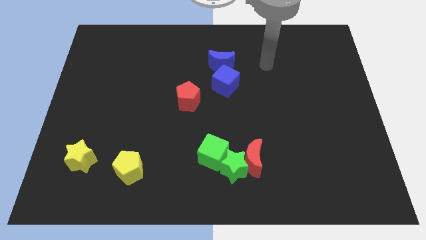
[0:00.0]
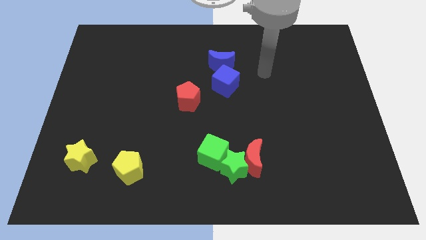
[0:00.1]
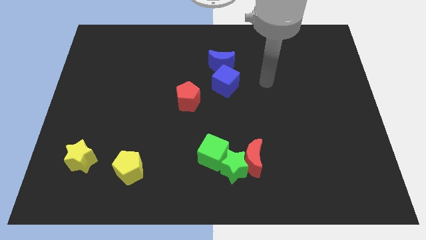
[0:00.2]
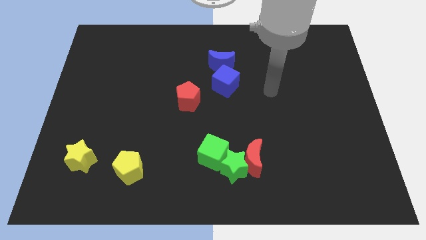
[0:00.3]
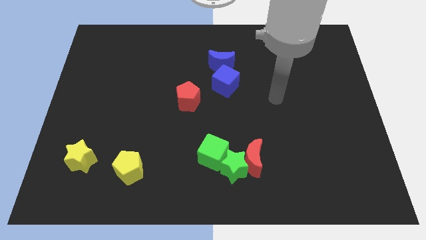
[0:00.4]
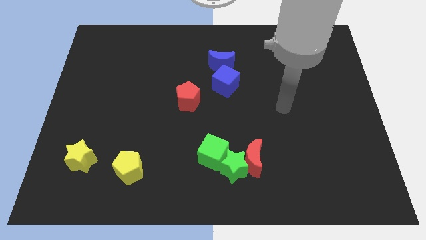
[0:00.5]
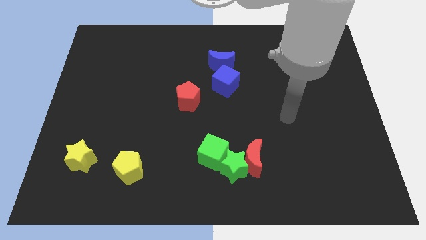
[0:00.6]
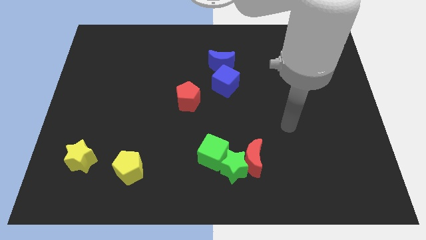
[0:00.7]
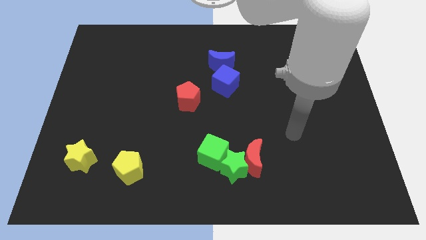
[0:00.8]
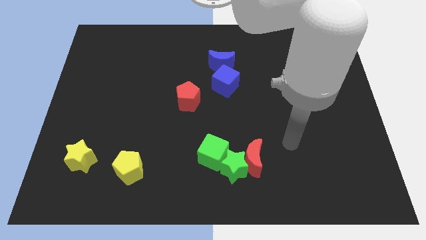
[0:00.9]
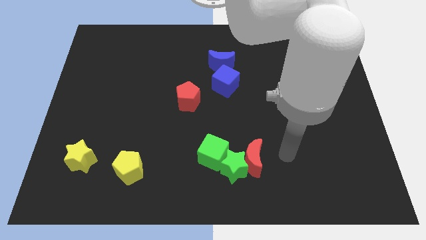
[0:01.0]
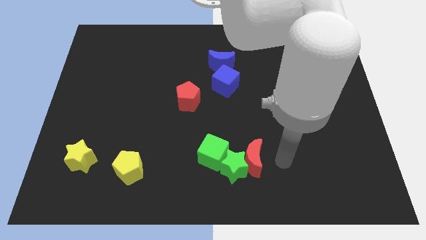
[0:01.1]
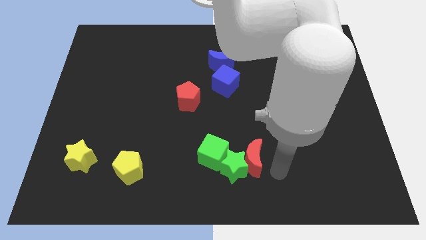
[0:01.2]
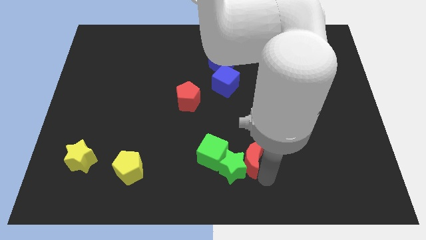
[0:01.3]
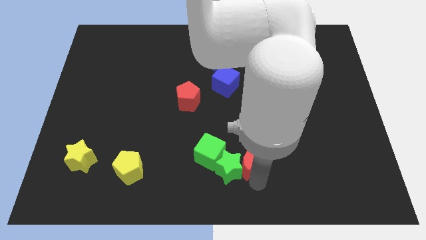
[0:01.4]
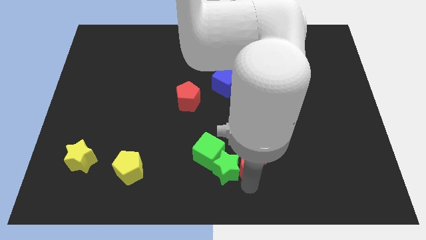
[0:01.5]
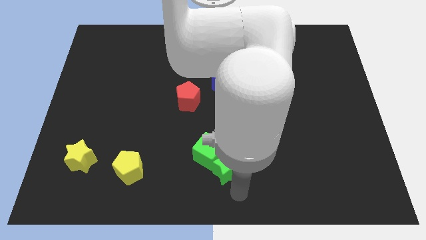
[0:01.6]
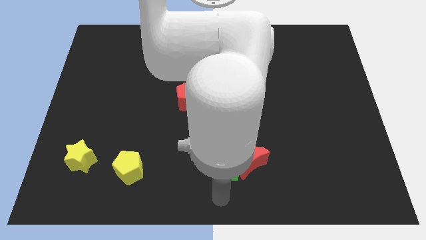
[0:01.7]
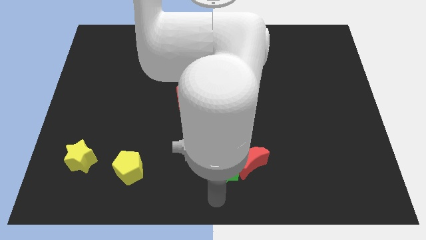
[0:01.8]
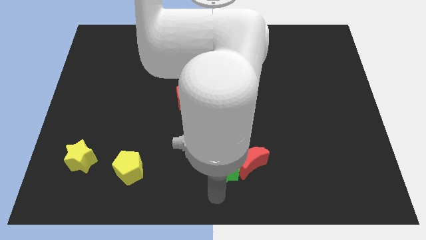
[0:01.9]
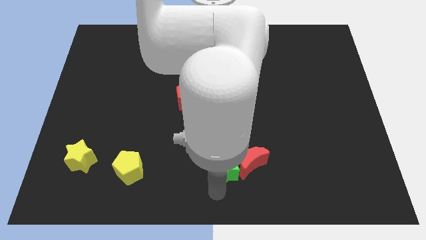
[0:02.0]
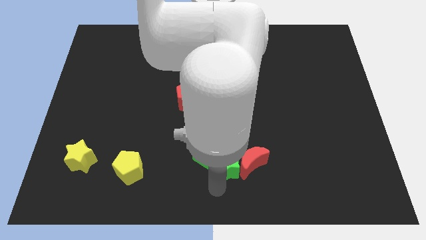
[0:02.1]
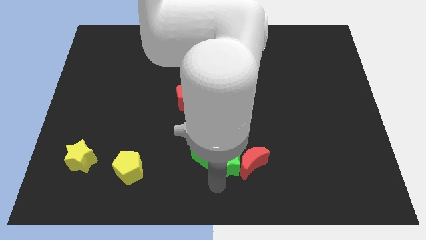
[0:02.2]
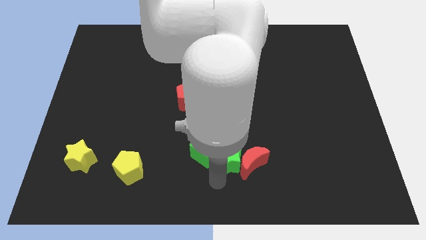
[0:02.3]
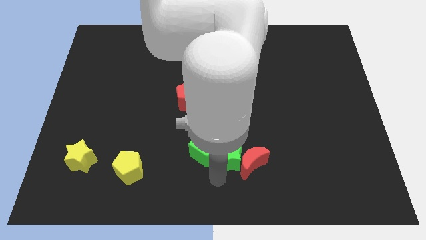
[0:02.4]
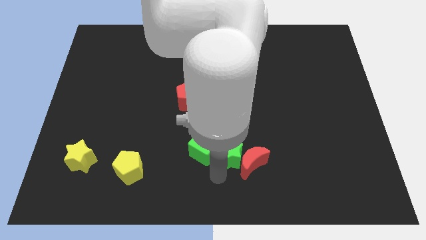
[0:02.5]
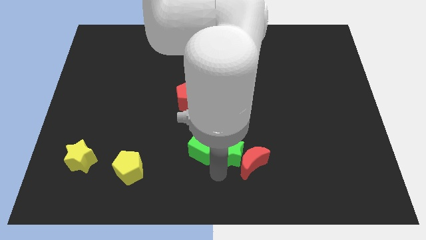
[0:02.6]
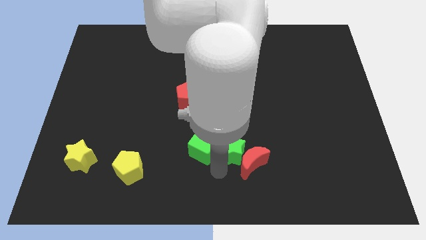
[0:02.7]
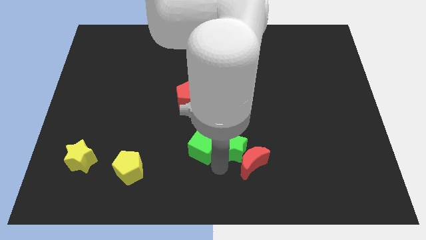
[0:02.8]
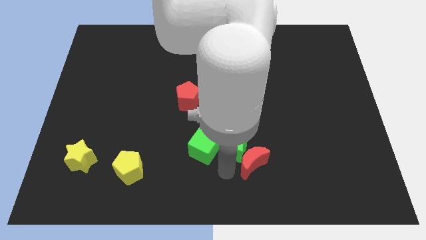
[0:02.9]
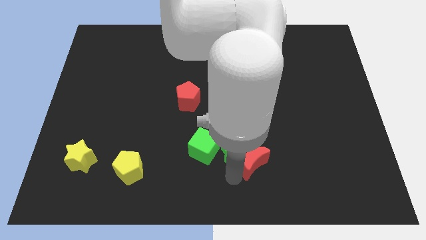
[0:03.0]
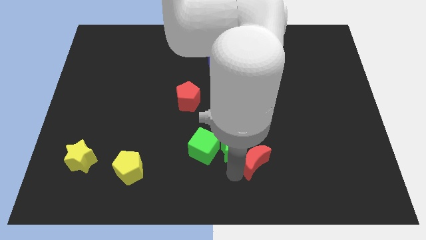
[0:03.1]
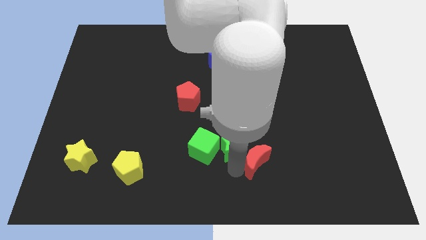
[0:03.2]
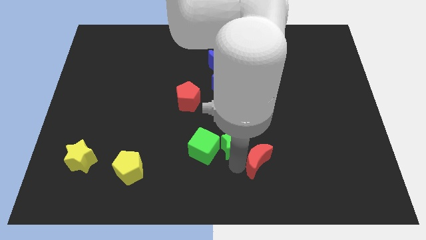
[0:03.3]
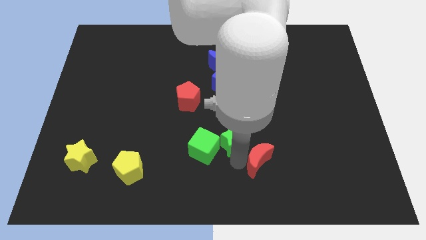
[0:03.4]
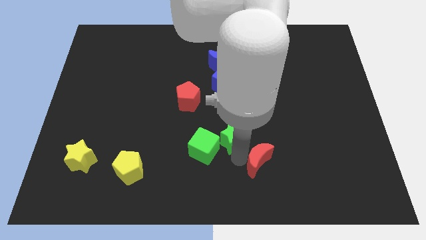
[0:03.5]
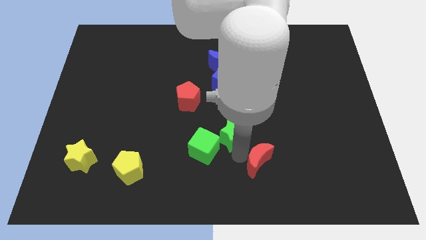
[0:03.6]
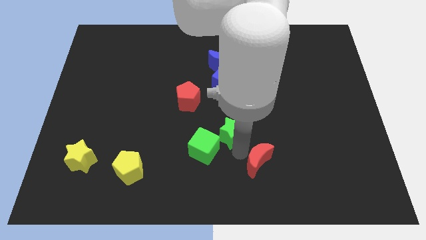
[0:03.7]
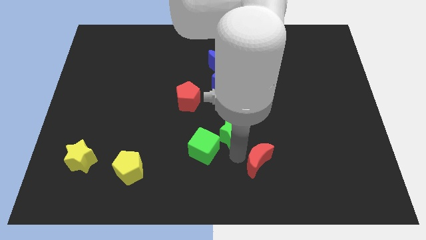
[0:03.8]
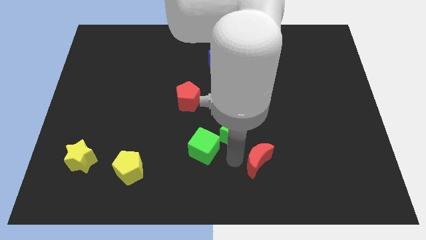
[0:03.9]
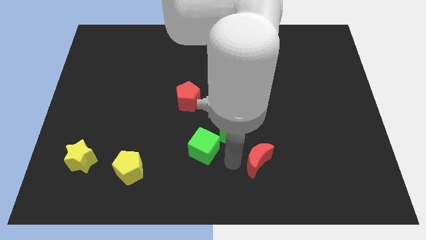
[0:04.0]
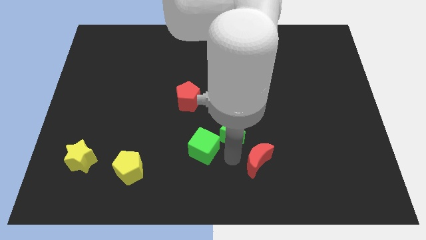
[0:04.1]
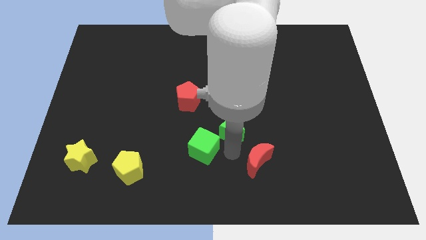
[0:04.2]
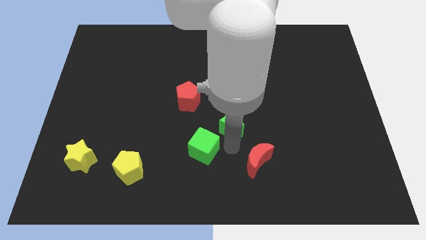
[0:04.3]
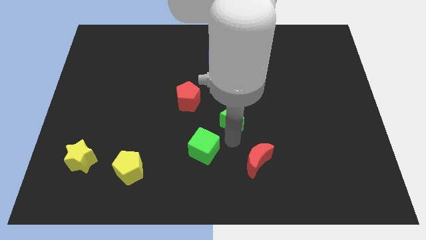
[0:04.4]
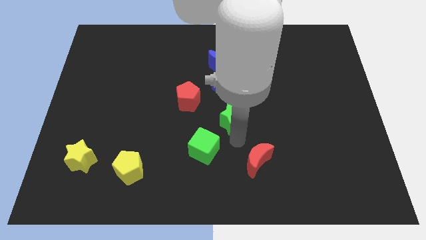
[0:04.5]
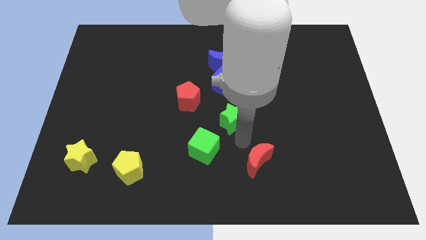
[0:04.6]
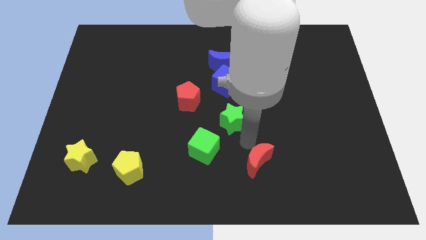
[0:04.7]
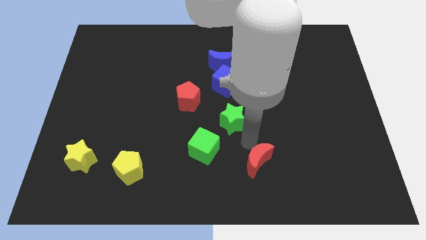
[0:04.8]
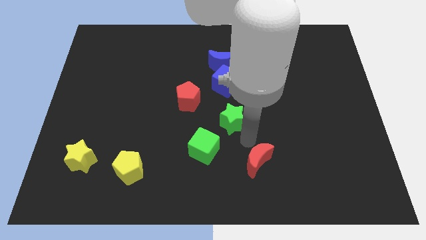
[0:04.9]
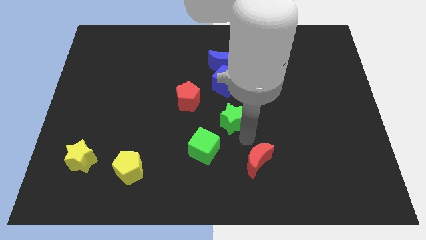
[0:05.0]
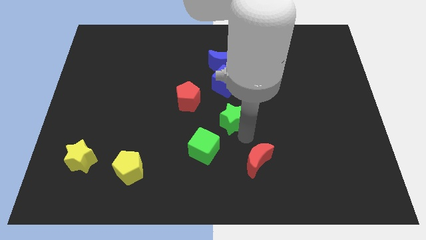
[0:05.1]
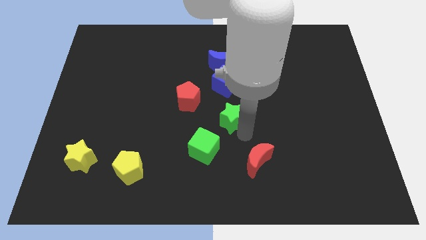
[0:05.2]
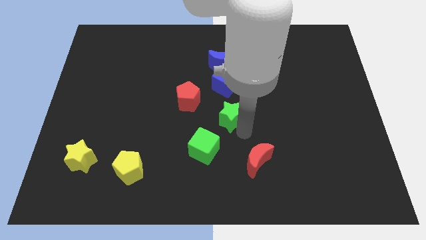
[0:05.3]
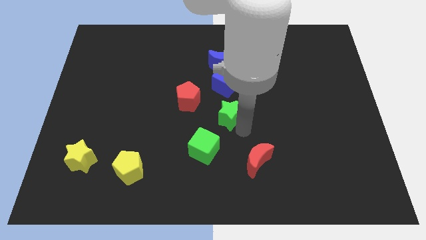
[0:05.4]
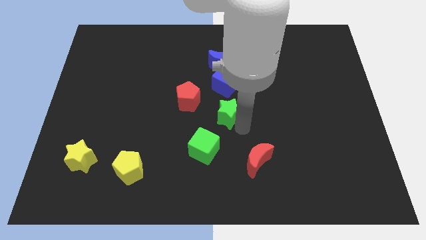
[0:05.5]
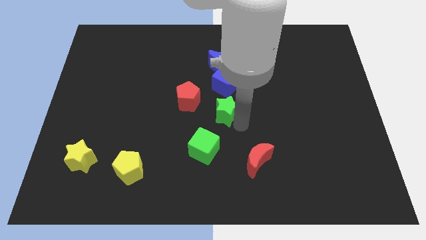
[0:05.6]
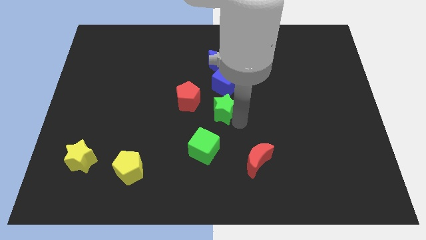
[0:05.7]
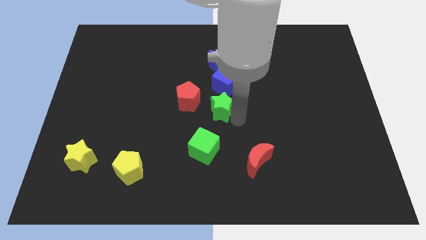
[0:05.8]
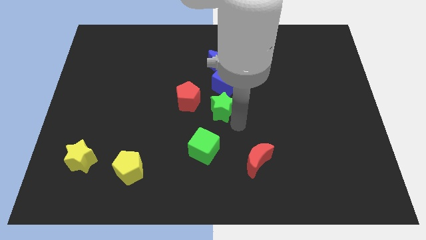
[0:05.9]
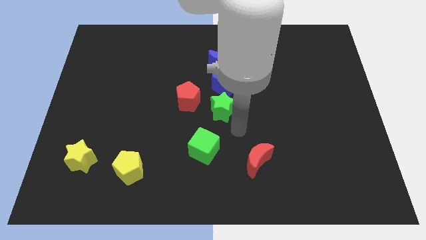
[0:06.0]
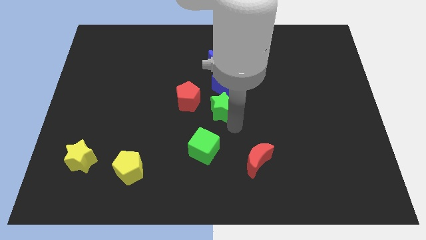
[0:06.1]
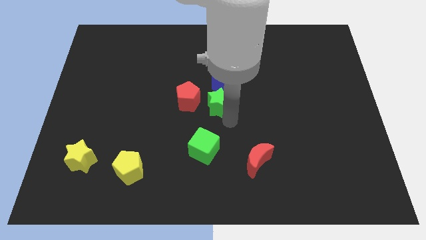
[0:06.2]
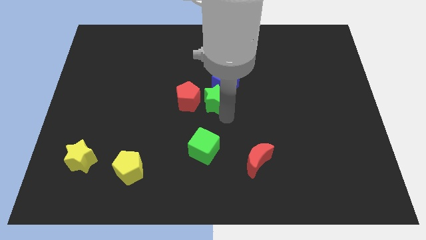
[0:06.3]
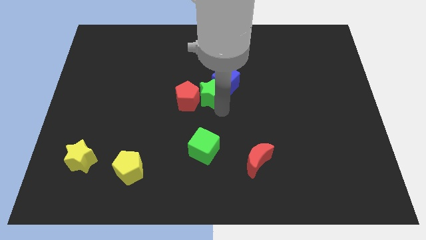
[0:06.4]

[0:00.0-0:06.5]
move the green star to the left side of the blue cube
